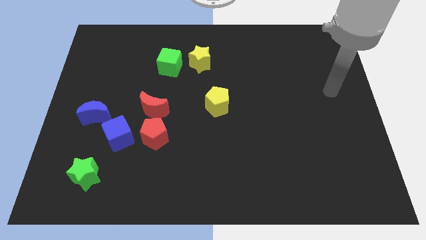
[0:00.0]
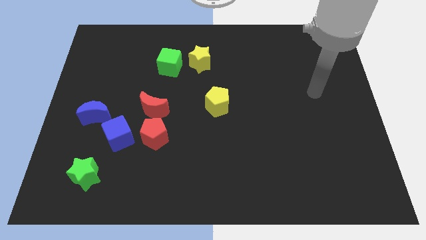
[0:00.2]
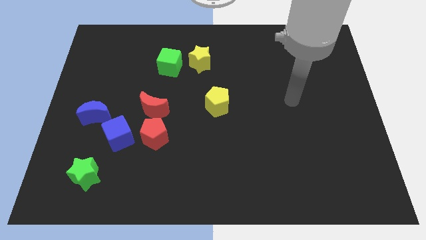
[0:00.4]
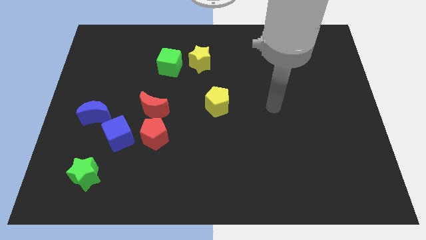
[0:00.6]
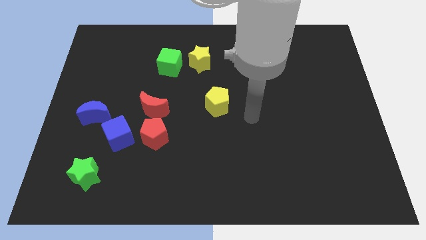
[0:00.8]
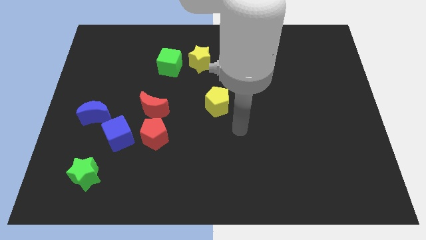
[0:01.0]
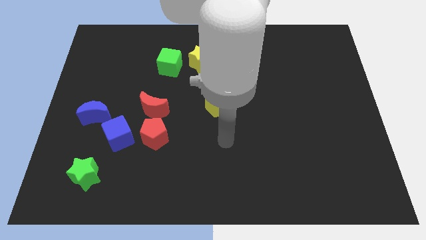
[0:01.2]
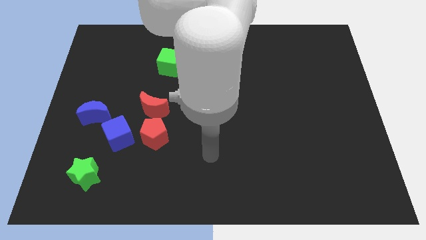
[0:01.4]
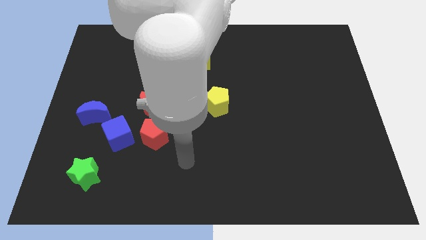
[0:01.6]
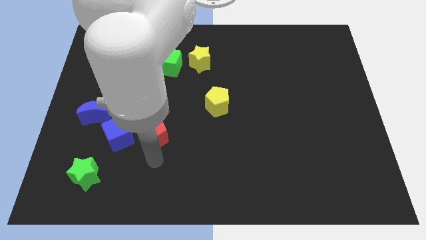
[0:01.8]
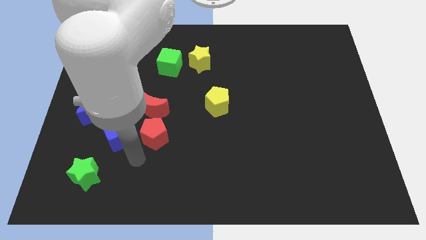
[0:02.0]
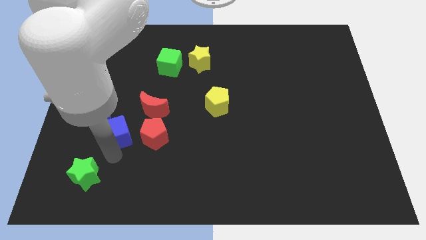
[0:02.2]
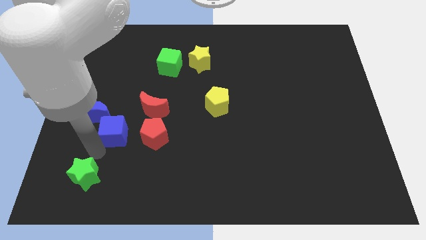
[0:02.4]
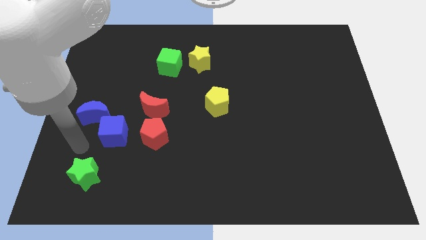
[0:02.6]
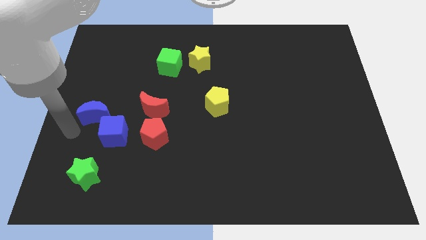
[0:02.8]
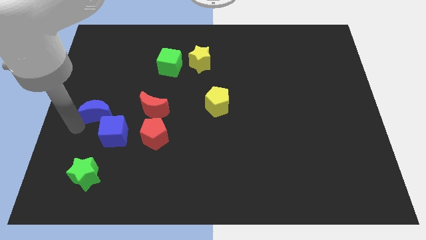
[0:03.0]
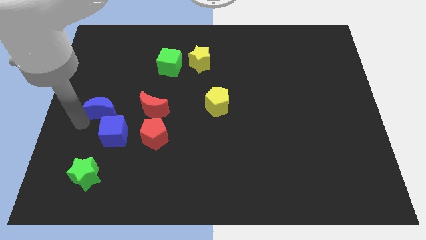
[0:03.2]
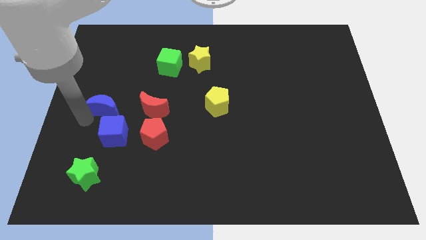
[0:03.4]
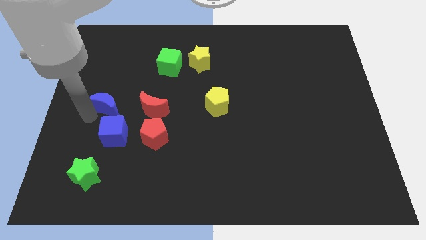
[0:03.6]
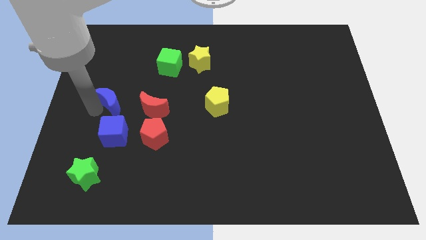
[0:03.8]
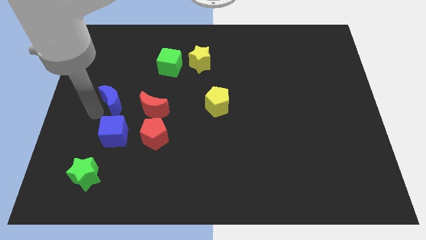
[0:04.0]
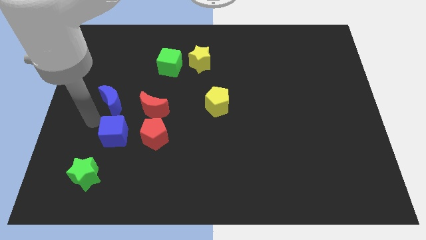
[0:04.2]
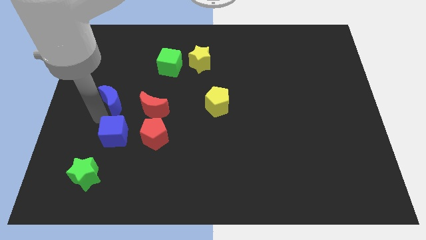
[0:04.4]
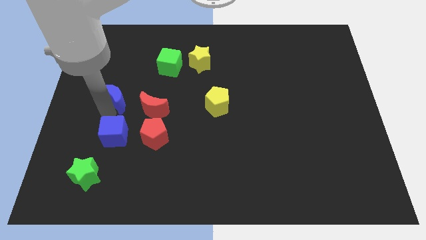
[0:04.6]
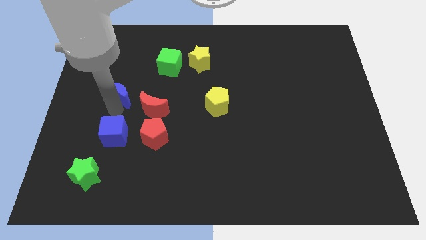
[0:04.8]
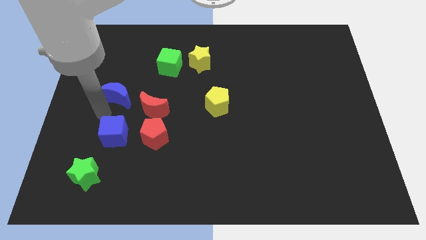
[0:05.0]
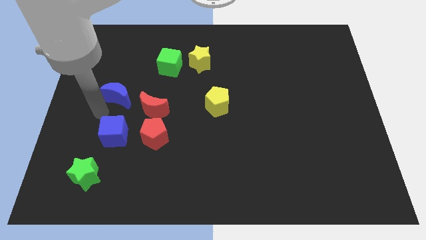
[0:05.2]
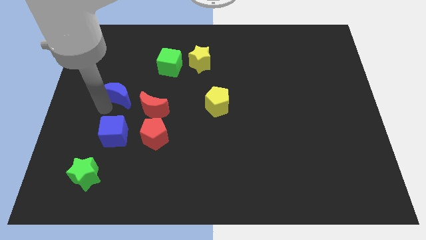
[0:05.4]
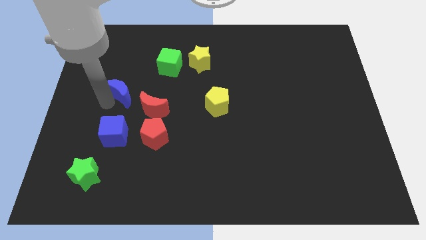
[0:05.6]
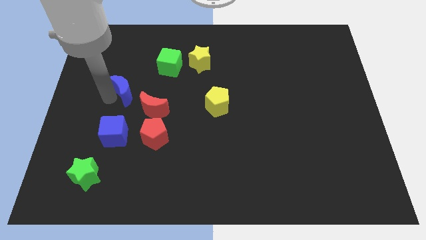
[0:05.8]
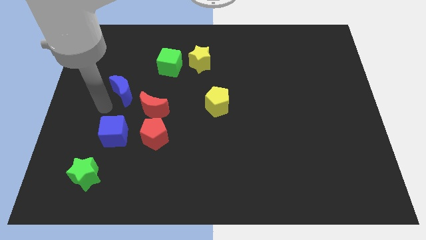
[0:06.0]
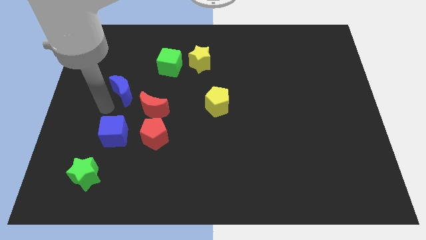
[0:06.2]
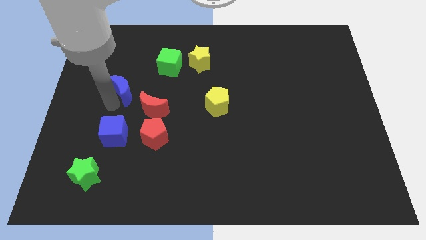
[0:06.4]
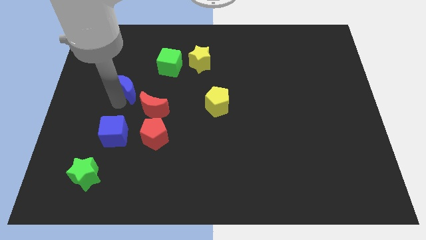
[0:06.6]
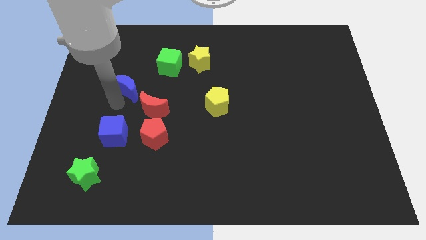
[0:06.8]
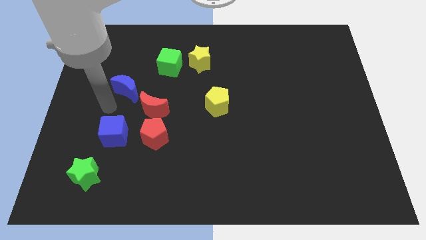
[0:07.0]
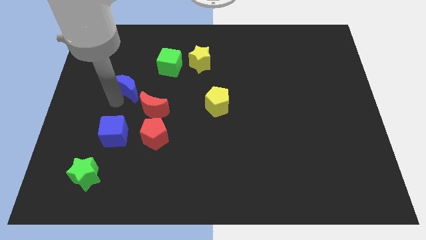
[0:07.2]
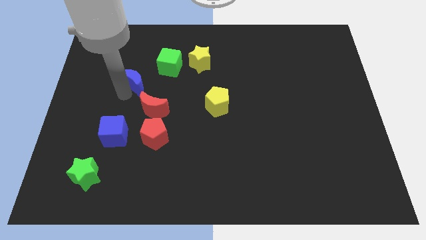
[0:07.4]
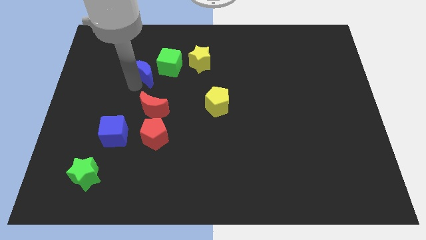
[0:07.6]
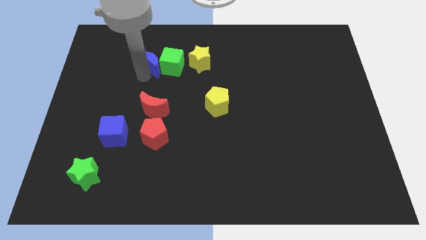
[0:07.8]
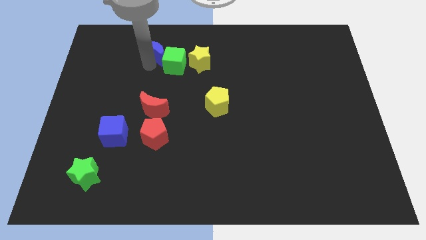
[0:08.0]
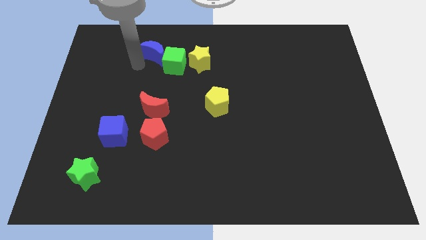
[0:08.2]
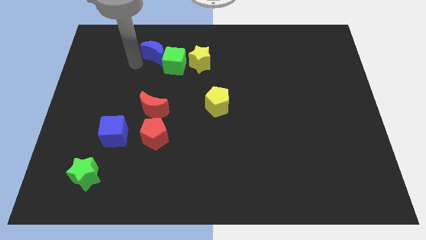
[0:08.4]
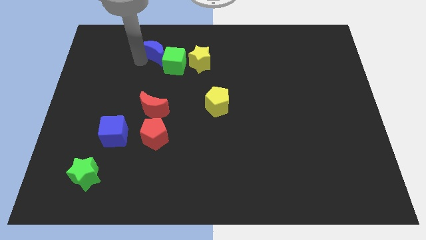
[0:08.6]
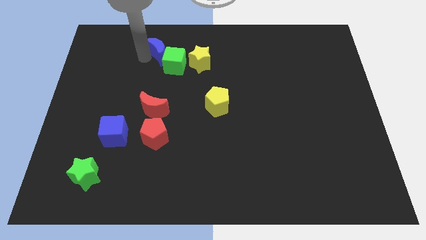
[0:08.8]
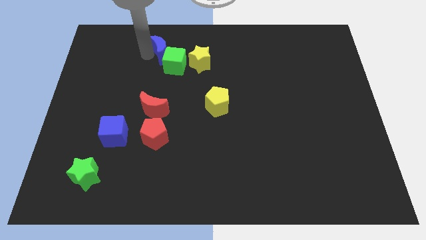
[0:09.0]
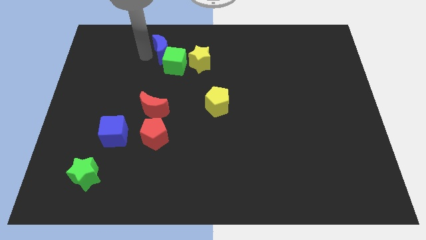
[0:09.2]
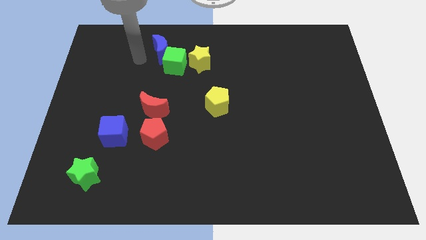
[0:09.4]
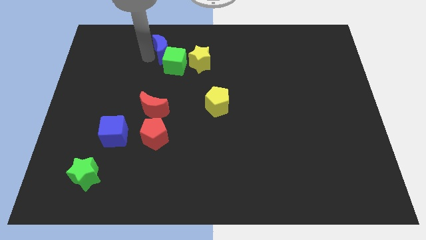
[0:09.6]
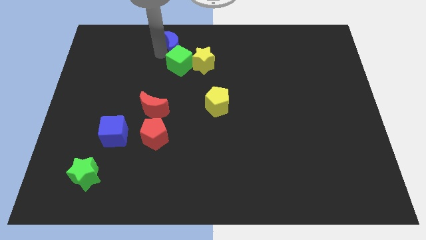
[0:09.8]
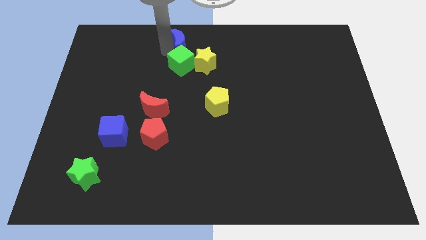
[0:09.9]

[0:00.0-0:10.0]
put the blue moon to the towards your base

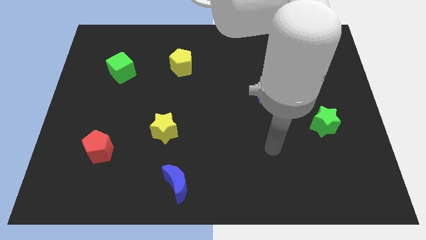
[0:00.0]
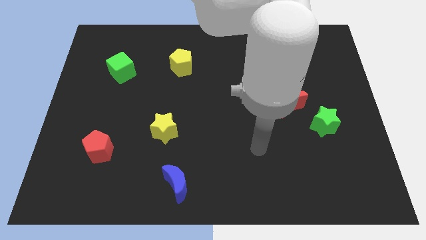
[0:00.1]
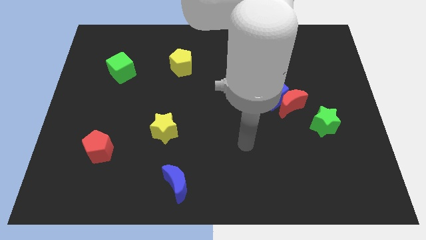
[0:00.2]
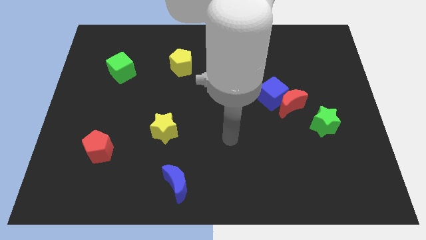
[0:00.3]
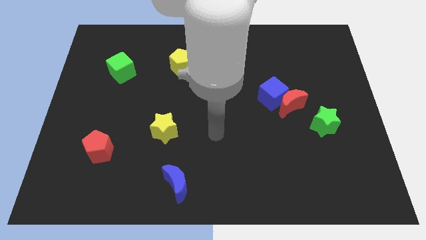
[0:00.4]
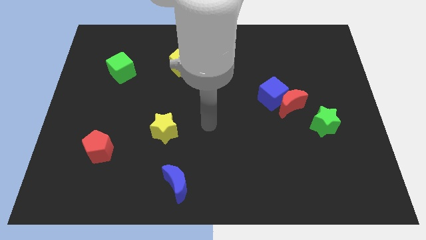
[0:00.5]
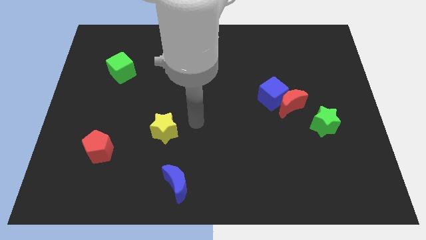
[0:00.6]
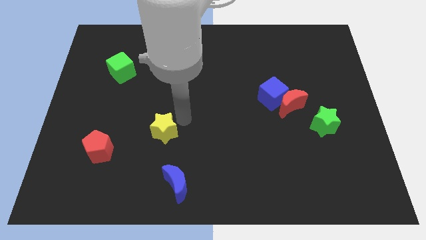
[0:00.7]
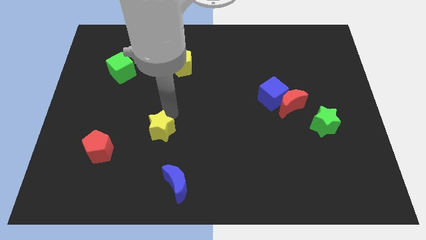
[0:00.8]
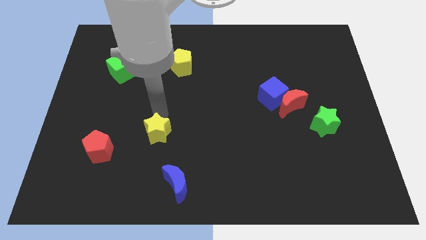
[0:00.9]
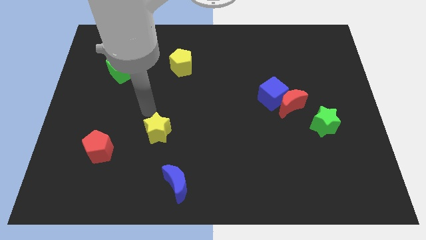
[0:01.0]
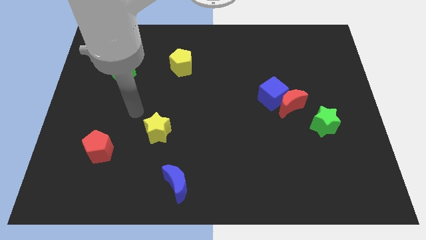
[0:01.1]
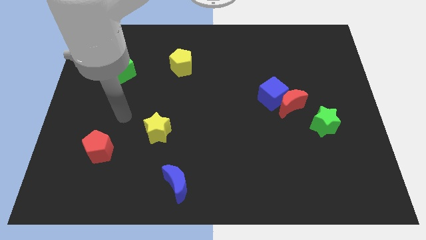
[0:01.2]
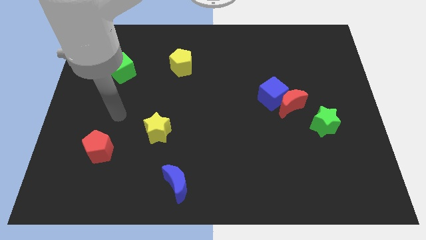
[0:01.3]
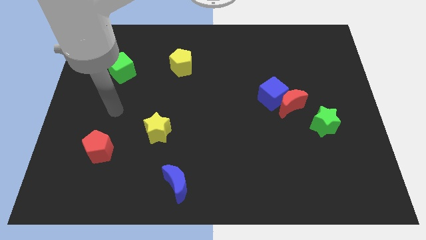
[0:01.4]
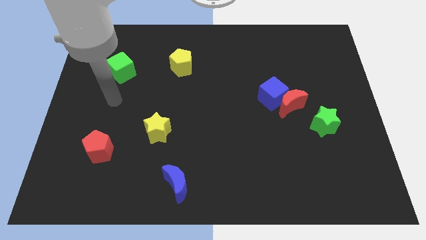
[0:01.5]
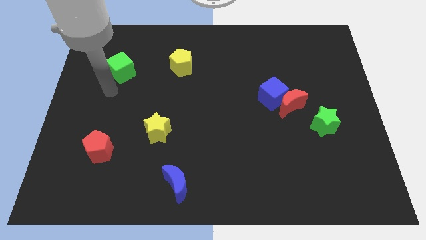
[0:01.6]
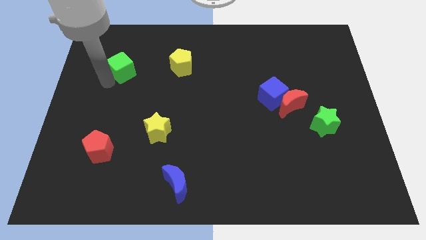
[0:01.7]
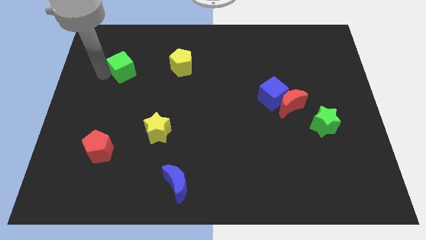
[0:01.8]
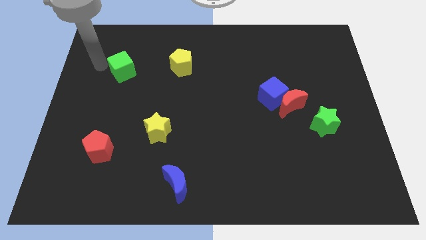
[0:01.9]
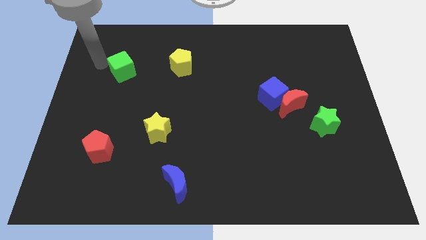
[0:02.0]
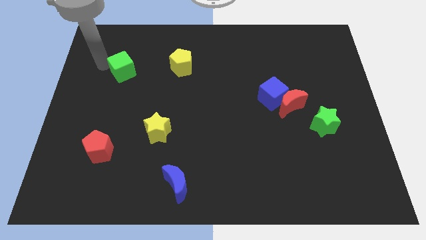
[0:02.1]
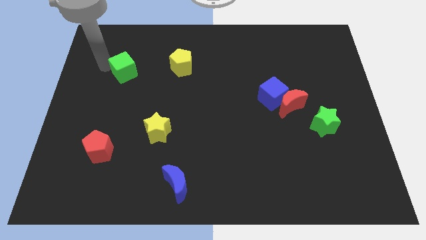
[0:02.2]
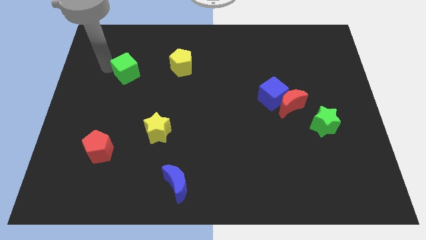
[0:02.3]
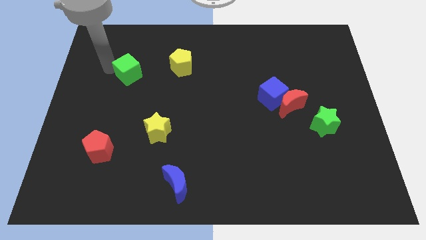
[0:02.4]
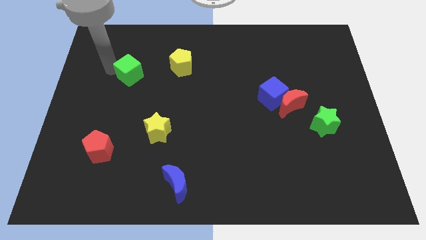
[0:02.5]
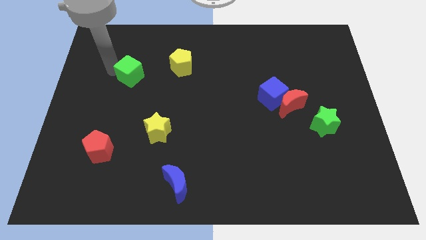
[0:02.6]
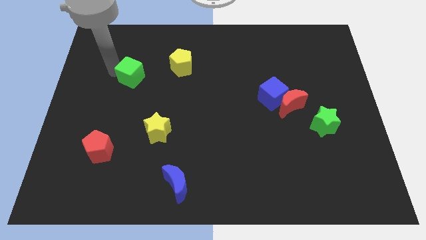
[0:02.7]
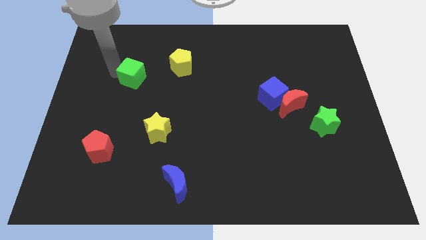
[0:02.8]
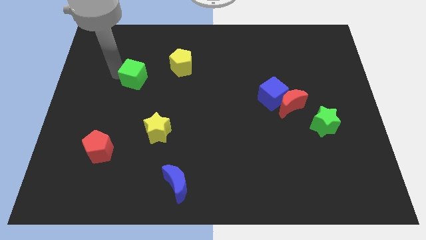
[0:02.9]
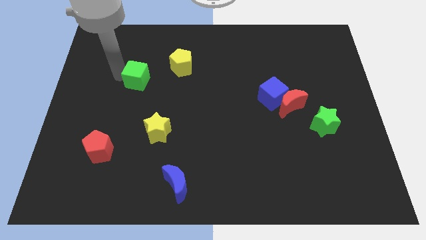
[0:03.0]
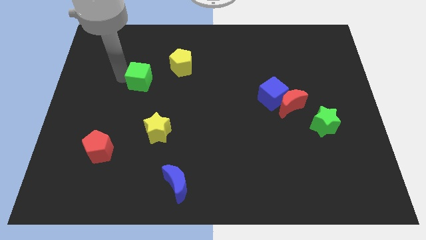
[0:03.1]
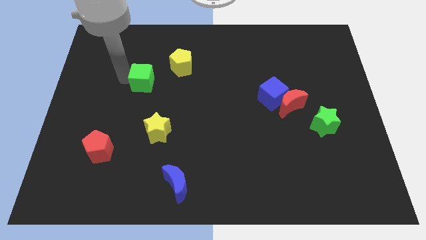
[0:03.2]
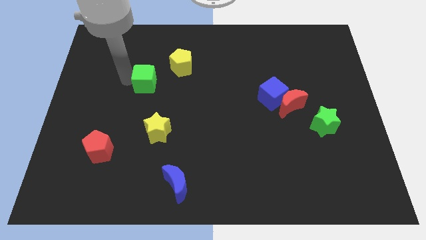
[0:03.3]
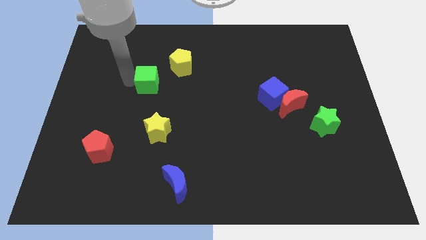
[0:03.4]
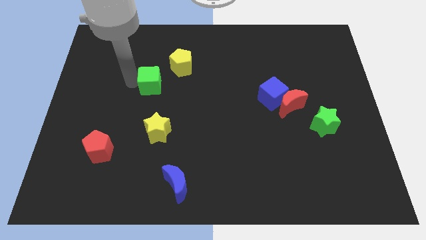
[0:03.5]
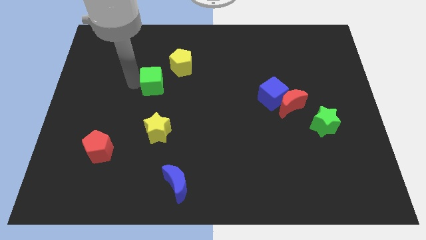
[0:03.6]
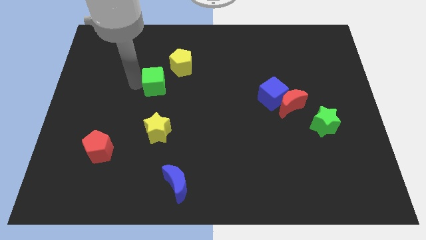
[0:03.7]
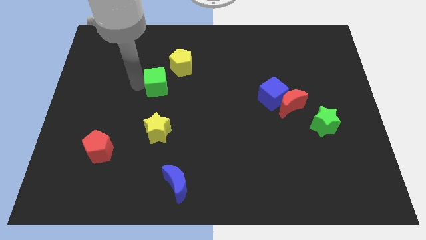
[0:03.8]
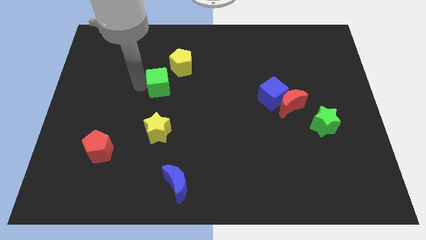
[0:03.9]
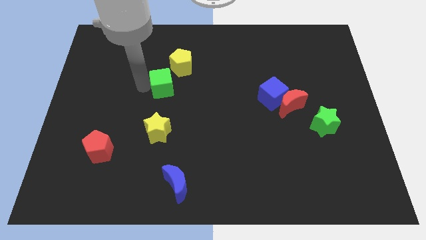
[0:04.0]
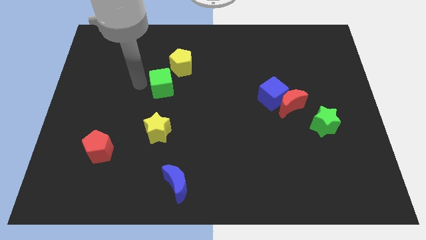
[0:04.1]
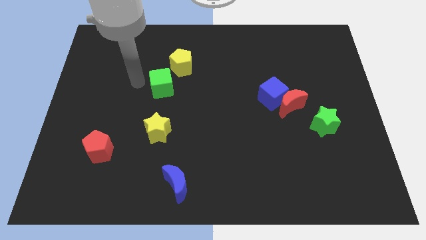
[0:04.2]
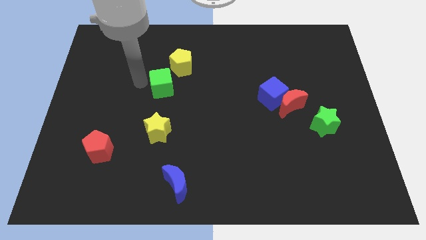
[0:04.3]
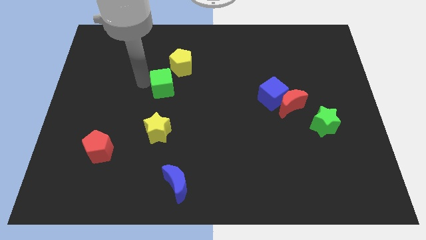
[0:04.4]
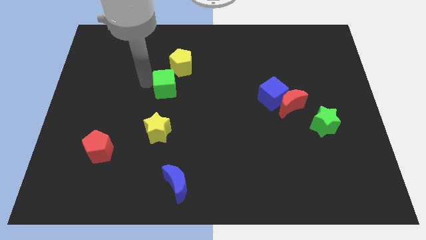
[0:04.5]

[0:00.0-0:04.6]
move the green cube to the middle of the board
